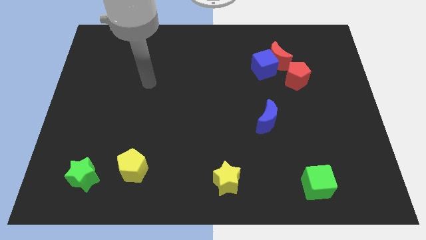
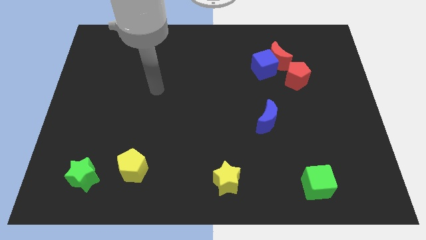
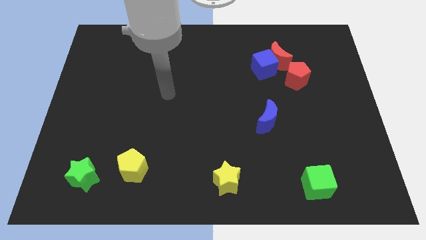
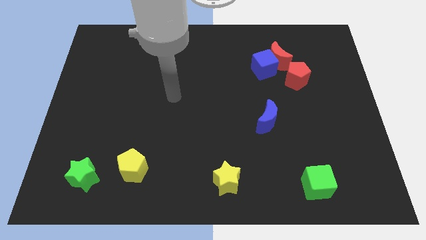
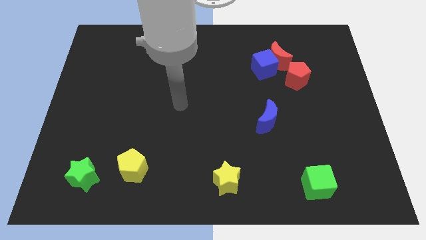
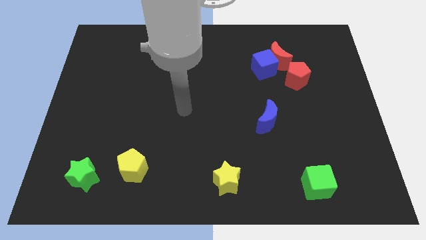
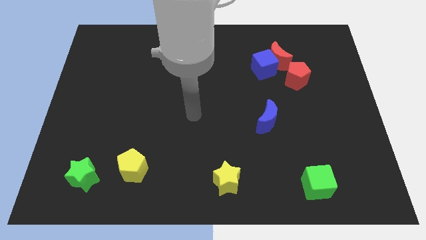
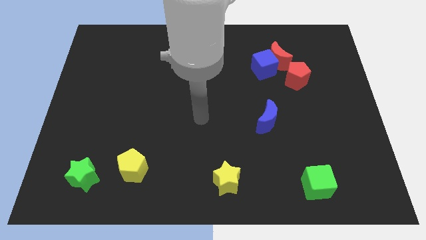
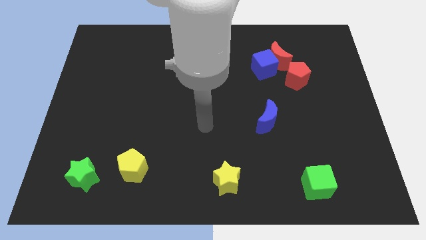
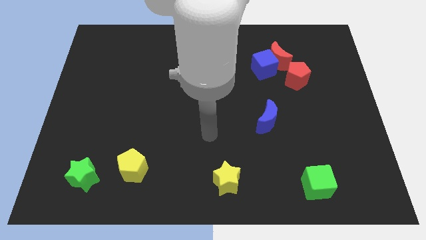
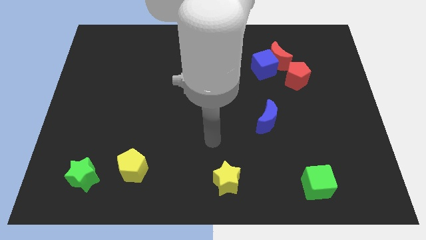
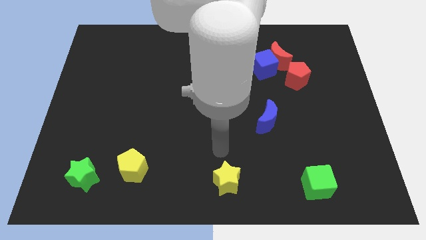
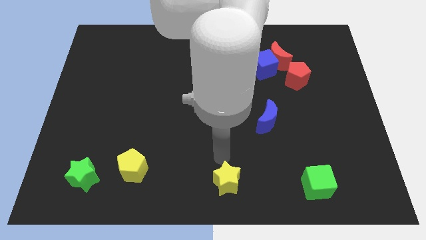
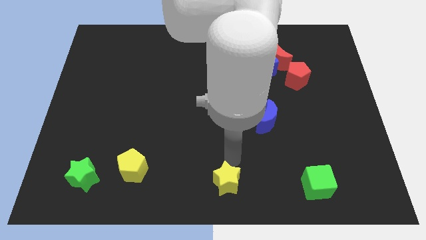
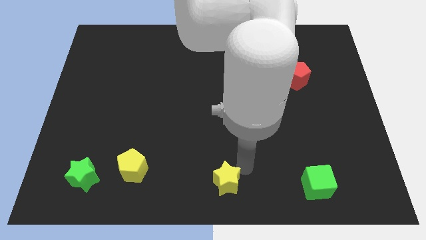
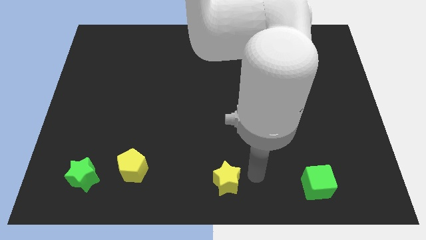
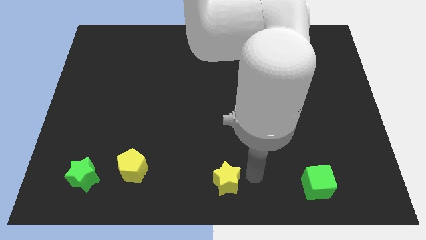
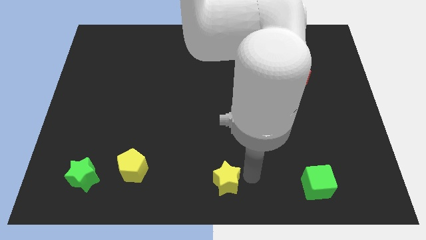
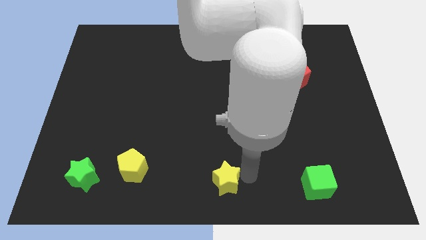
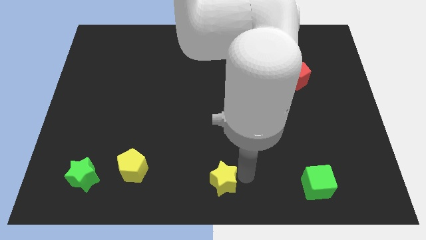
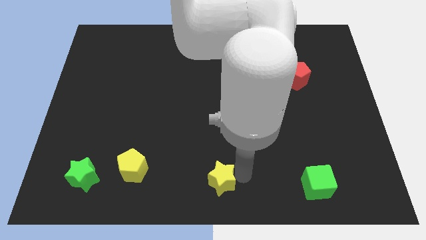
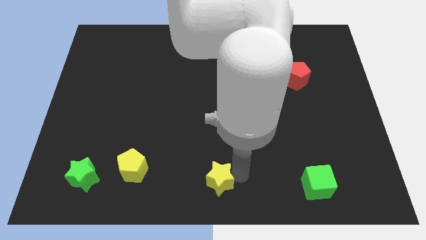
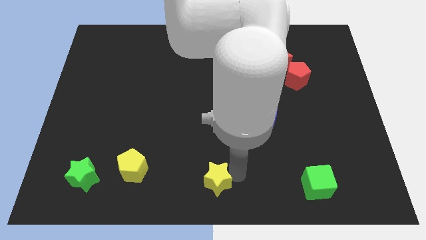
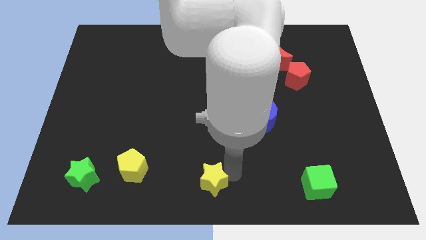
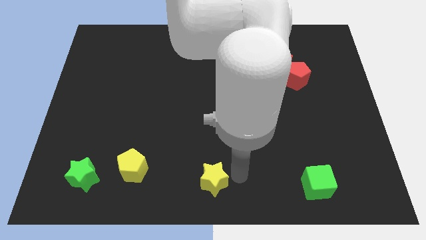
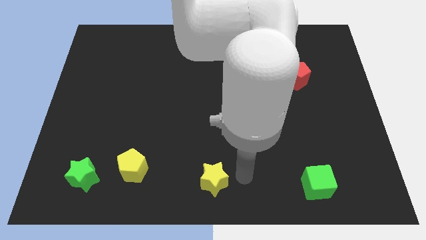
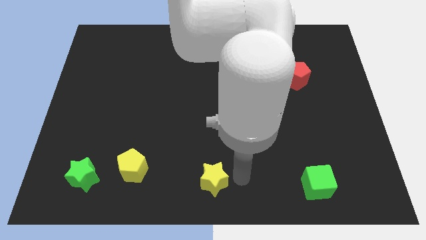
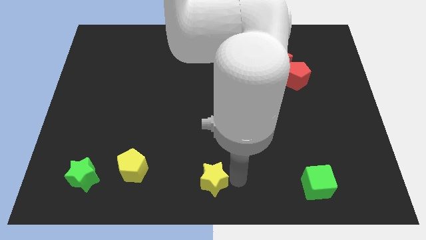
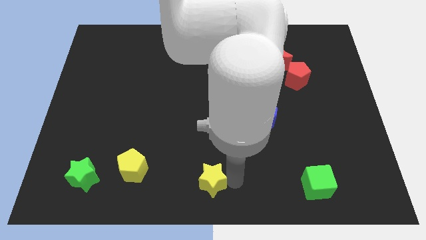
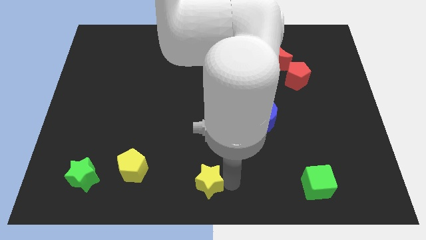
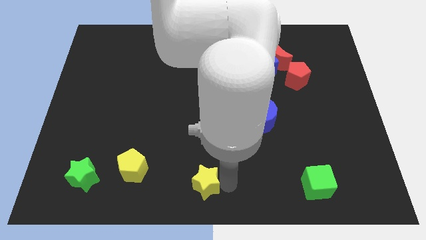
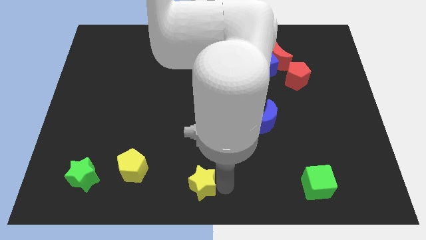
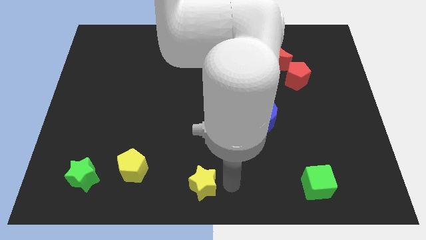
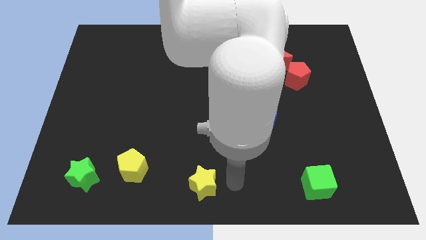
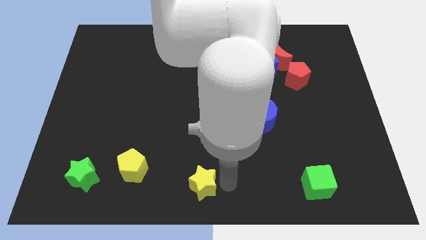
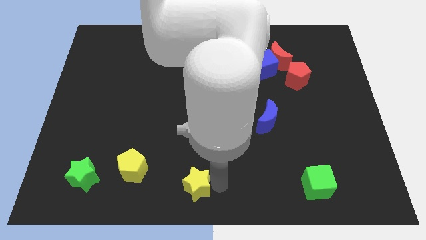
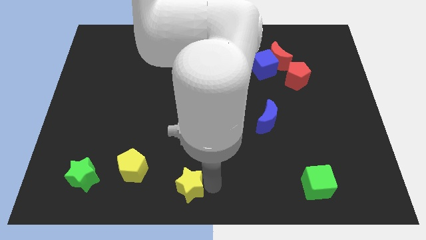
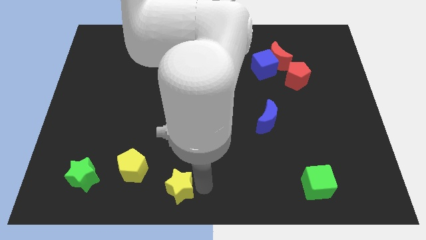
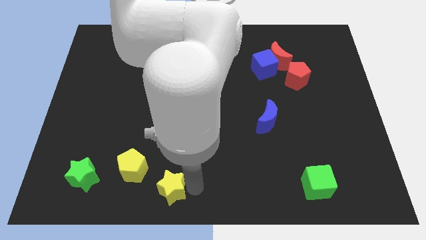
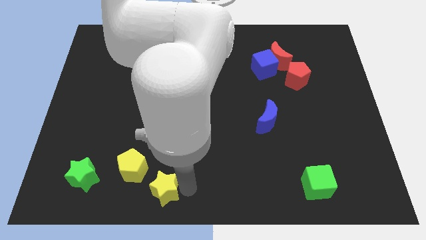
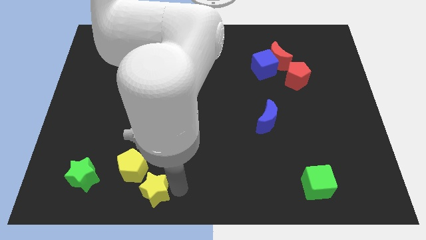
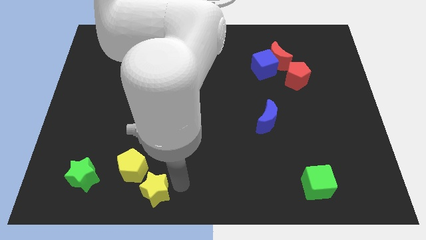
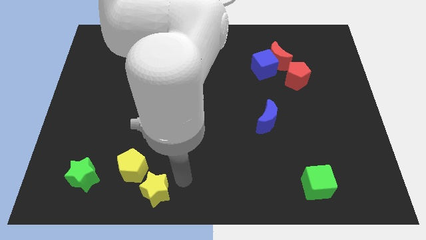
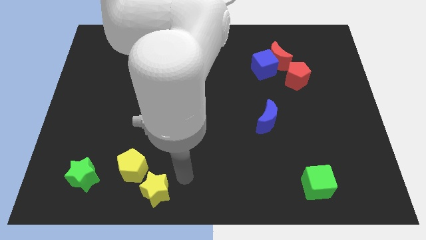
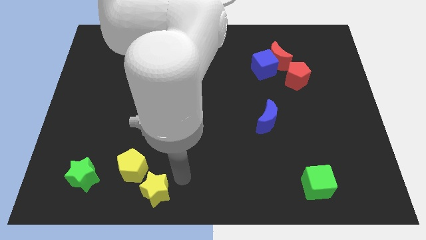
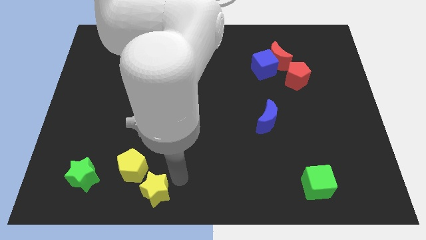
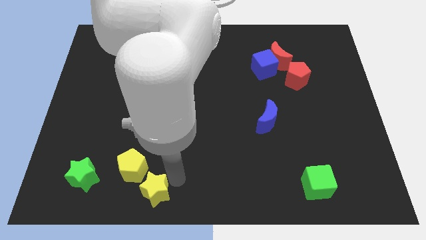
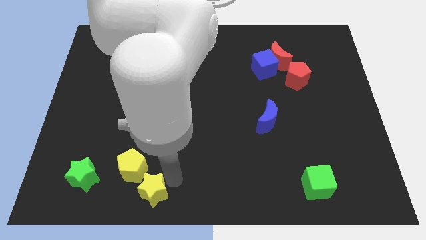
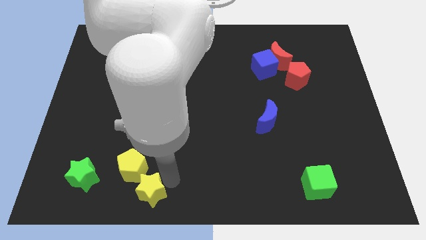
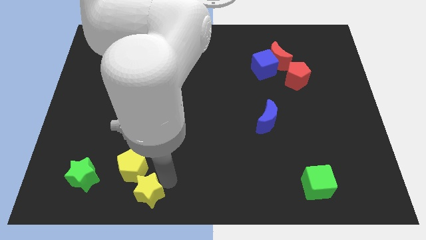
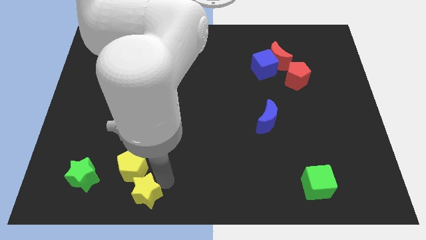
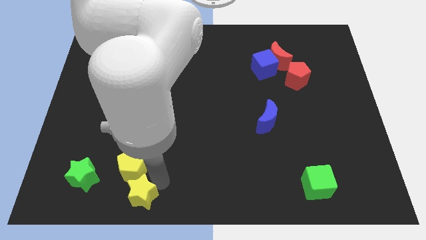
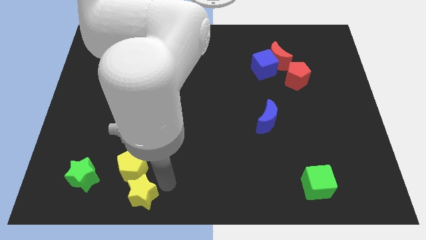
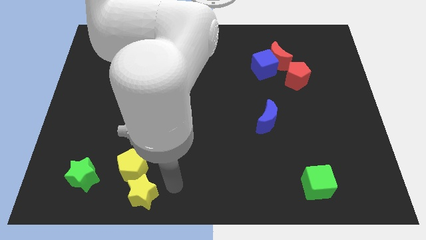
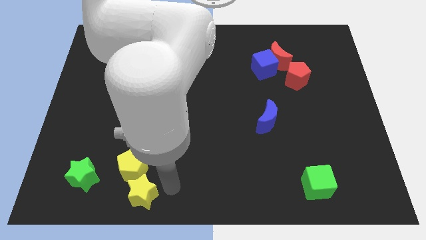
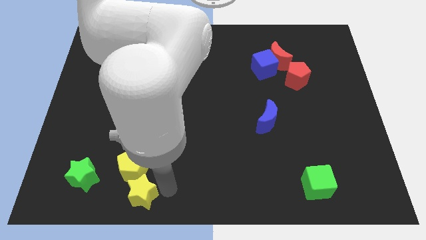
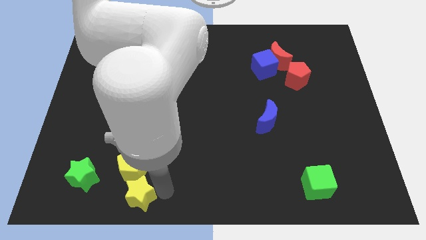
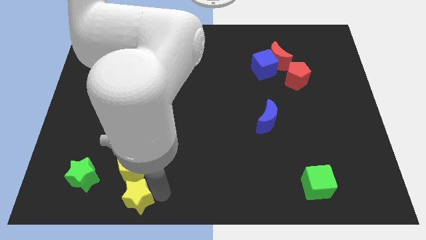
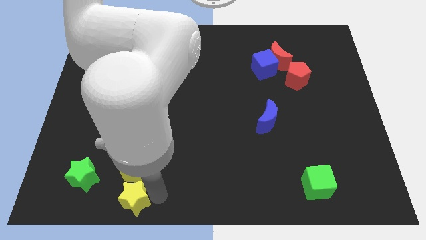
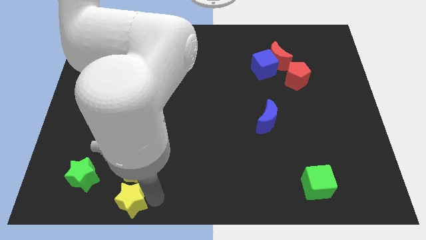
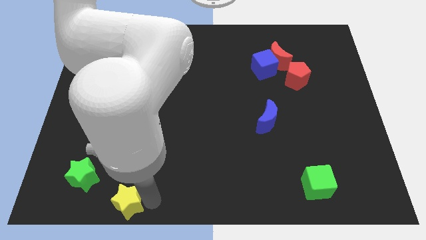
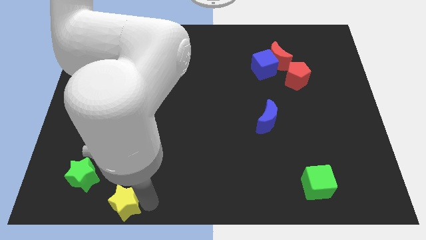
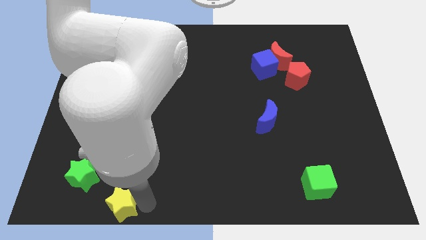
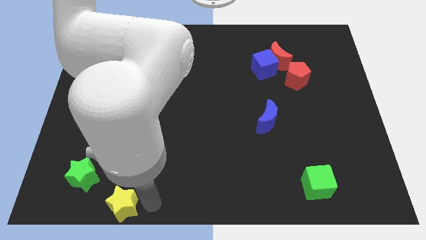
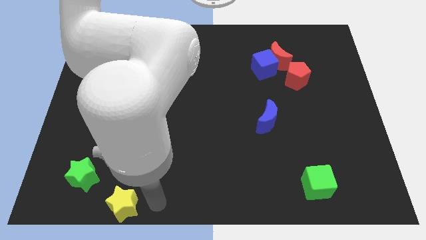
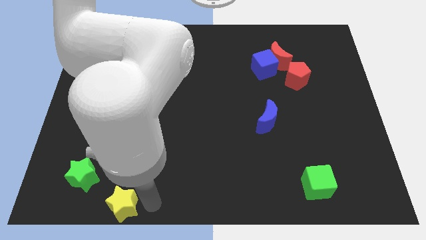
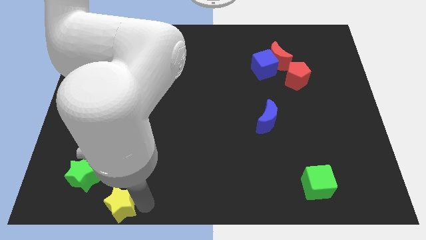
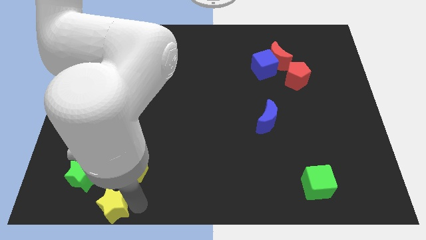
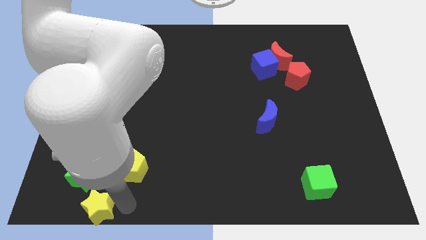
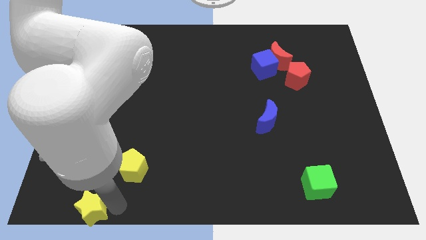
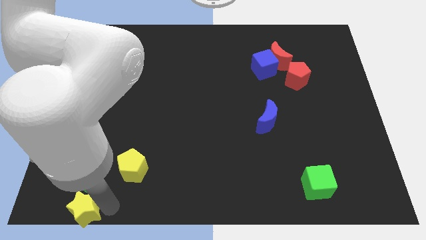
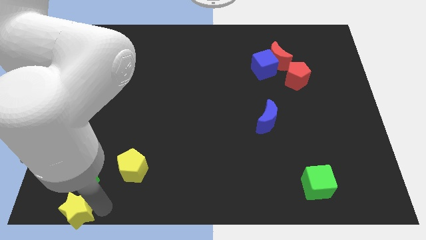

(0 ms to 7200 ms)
move the yellow star to the lower left corner

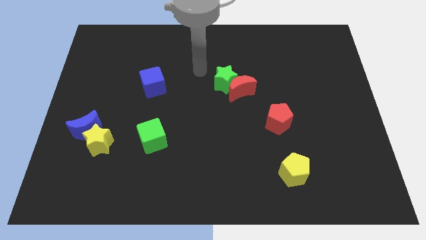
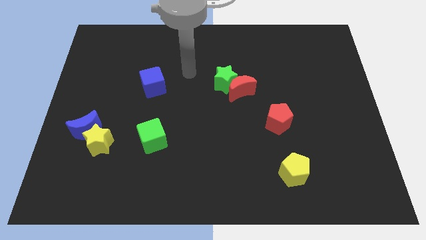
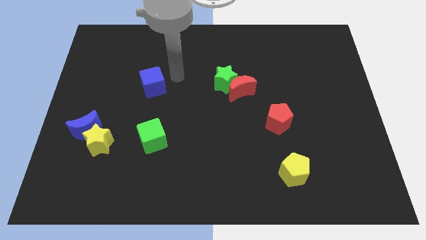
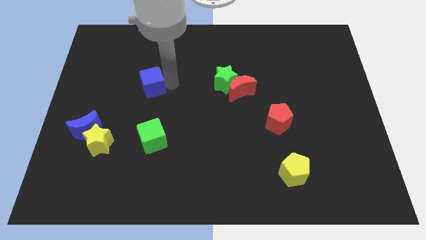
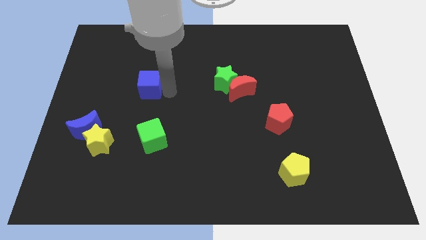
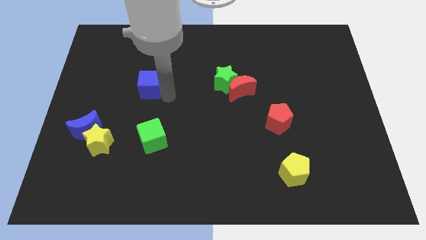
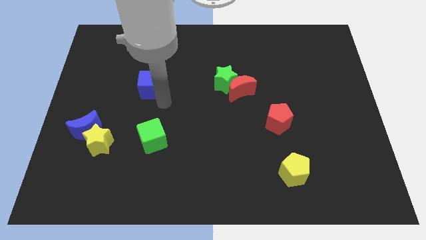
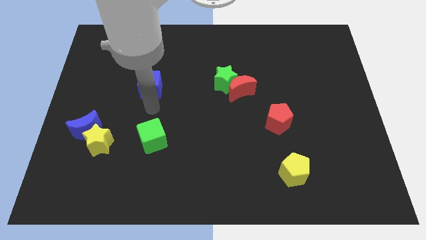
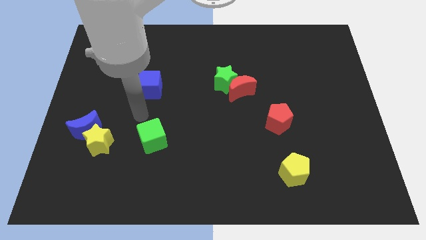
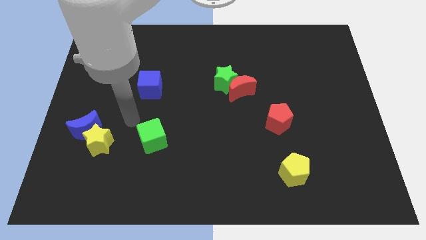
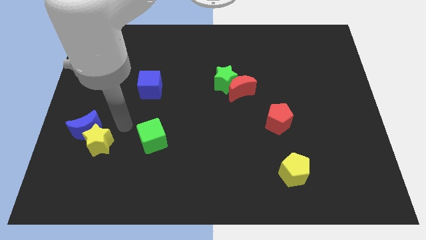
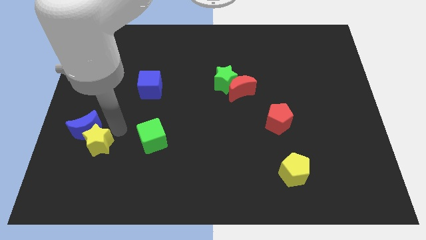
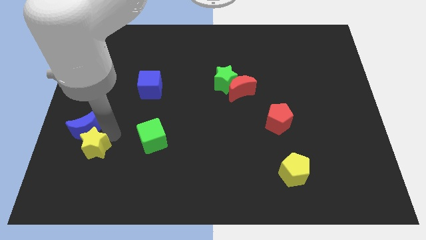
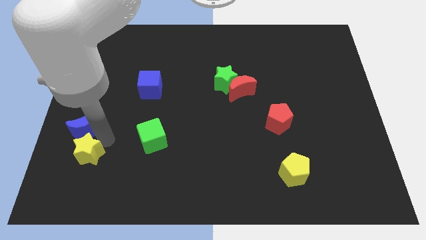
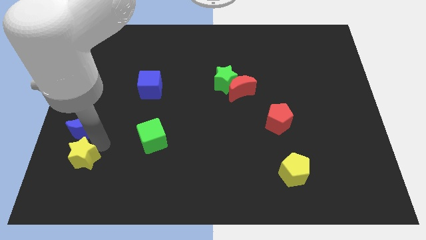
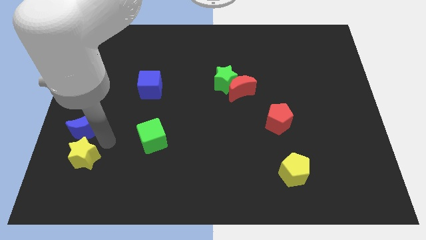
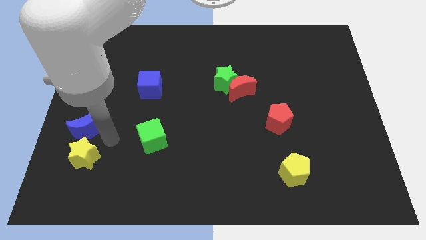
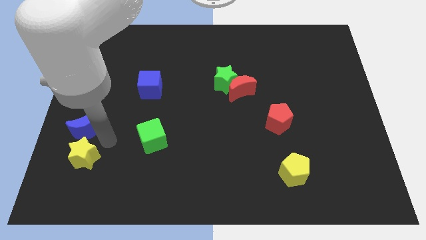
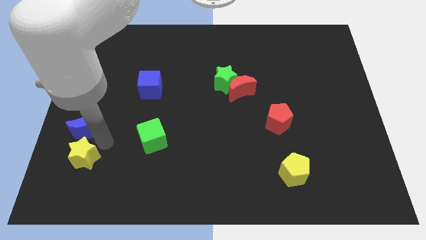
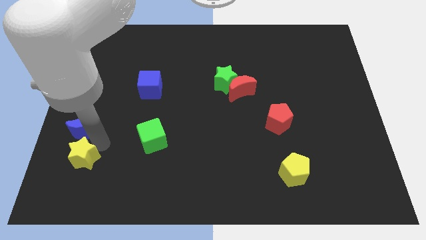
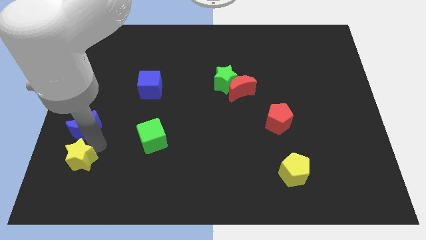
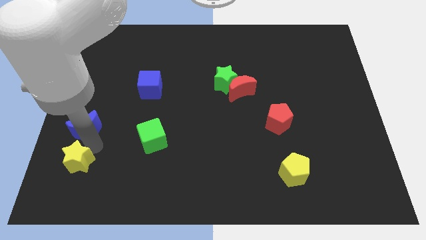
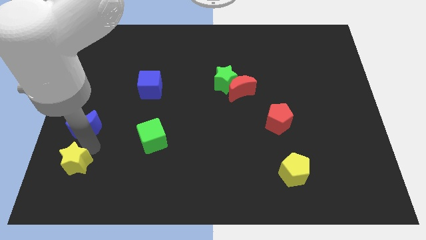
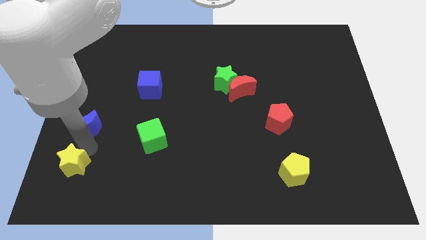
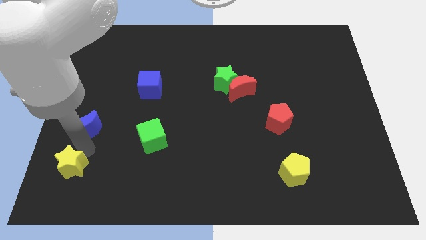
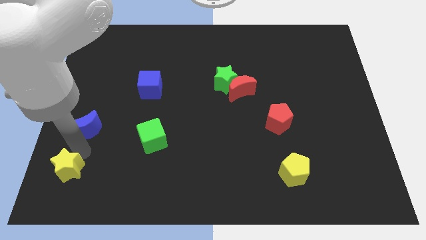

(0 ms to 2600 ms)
put the yellow star to the bottom left corner
